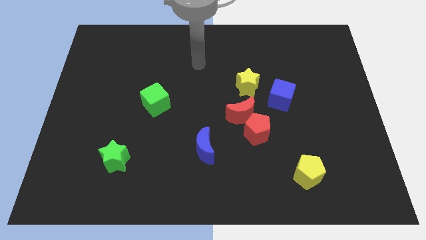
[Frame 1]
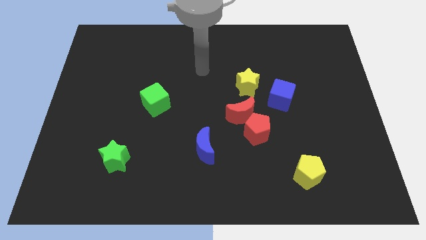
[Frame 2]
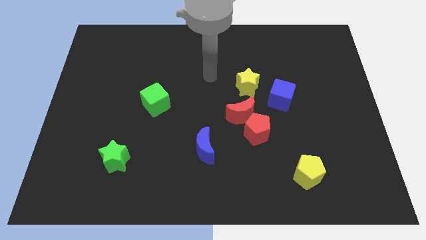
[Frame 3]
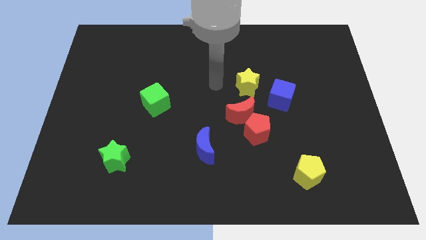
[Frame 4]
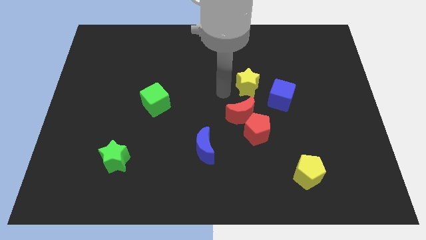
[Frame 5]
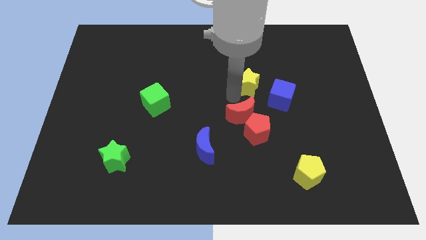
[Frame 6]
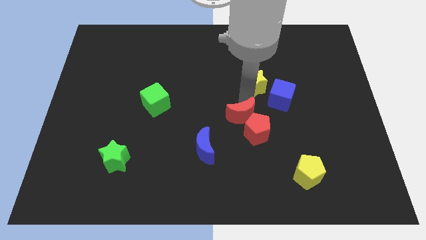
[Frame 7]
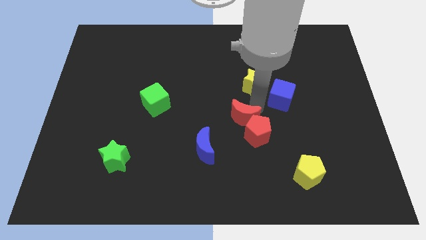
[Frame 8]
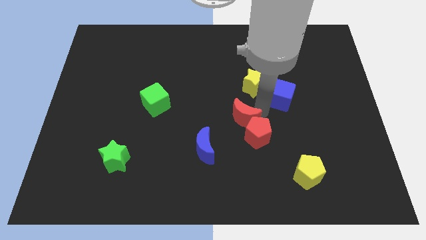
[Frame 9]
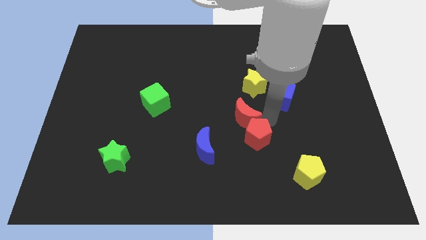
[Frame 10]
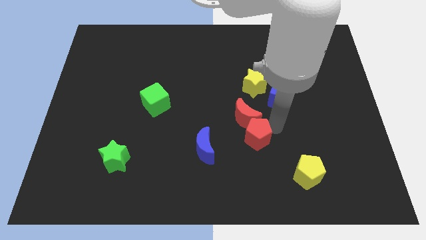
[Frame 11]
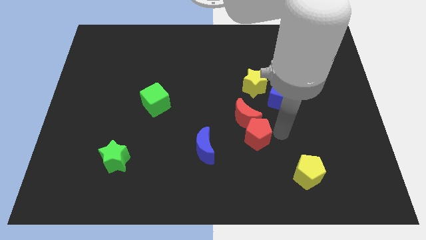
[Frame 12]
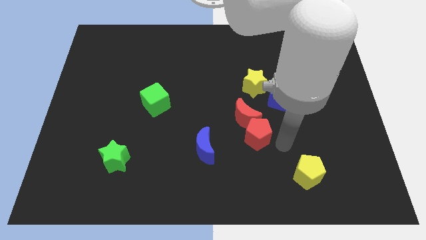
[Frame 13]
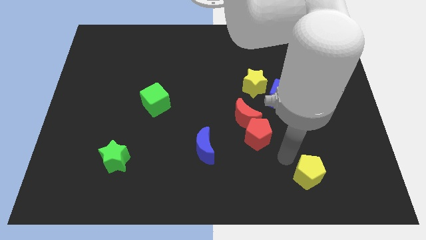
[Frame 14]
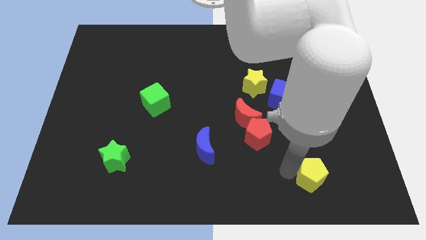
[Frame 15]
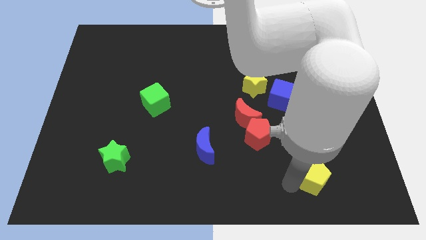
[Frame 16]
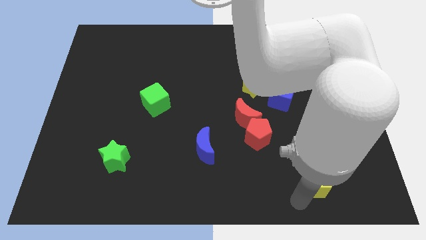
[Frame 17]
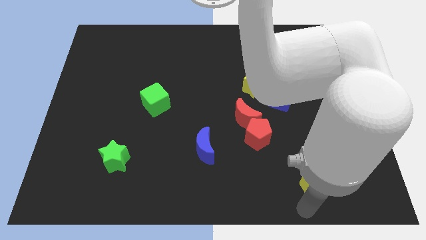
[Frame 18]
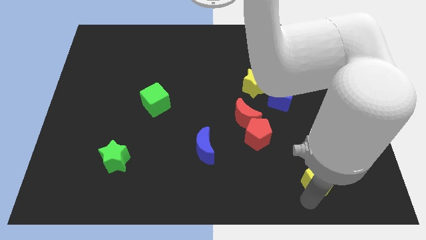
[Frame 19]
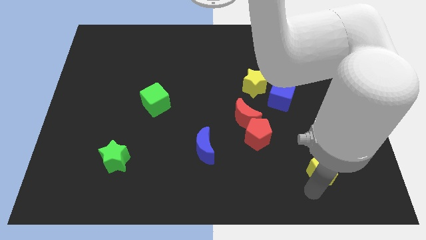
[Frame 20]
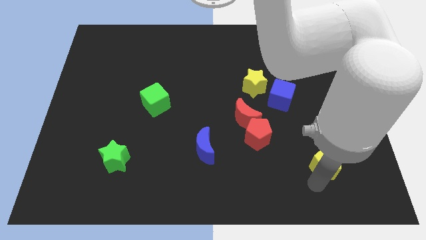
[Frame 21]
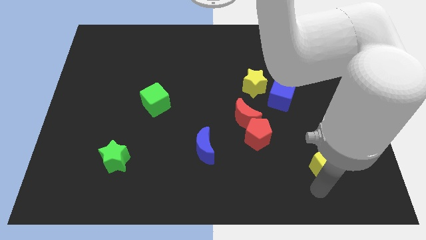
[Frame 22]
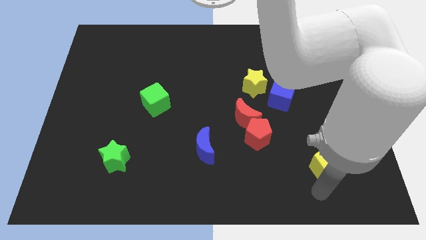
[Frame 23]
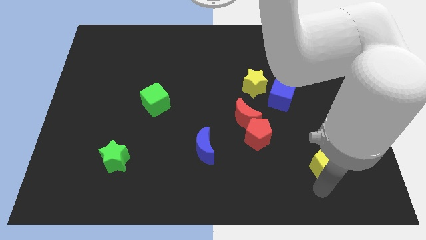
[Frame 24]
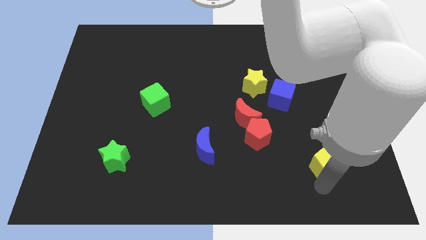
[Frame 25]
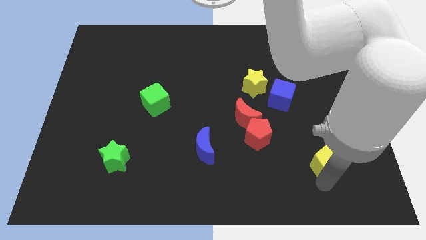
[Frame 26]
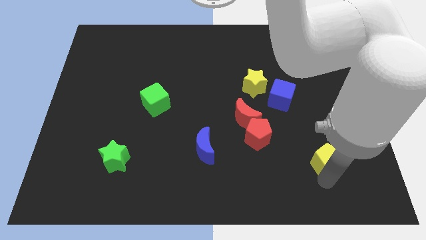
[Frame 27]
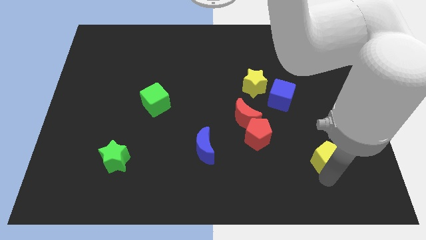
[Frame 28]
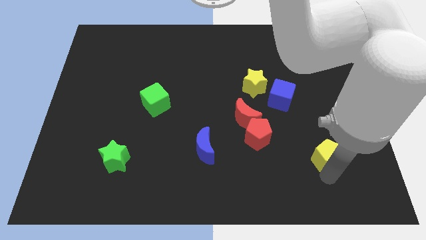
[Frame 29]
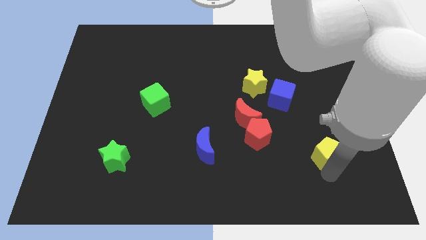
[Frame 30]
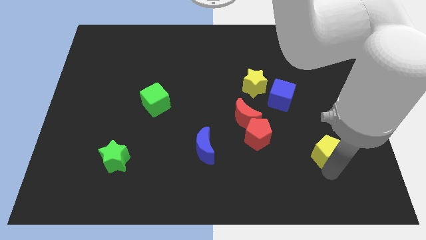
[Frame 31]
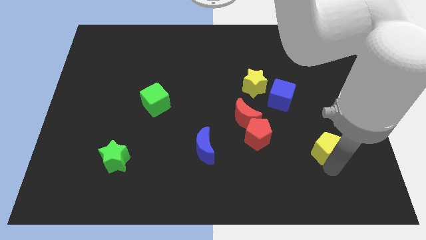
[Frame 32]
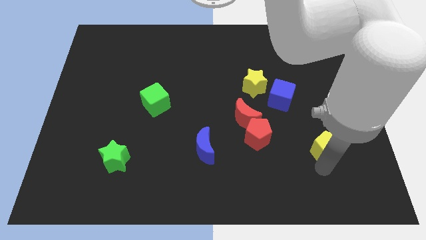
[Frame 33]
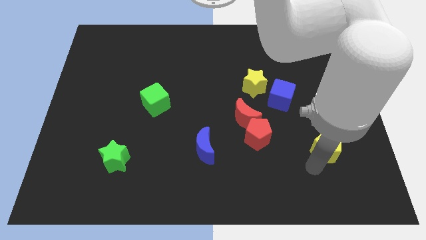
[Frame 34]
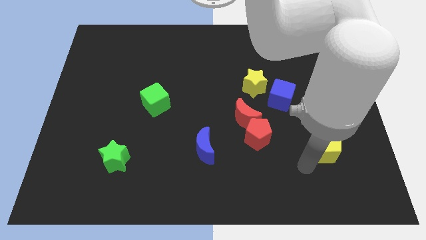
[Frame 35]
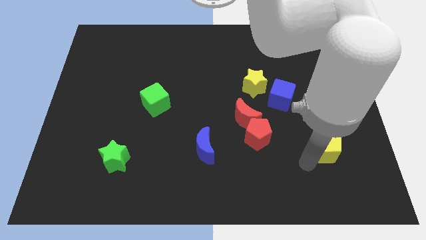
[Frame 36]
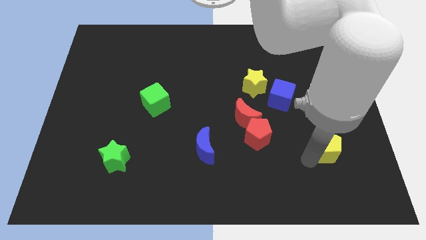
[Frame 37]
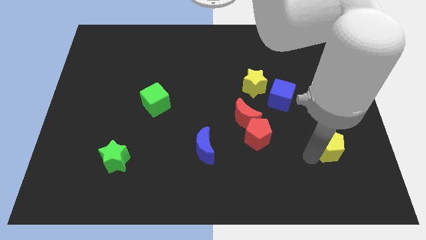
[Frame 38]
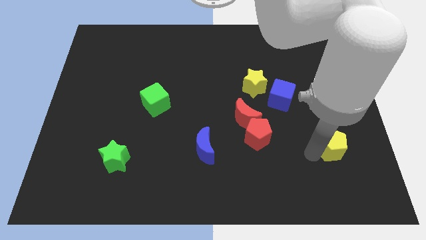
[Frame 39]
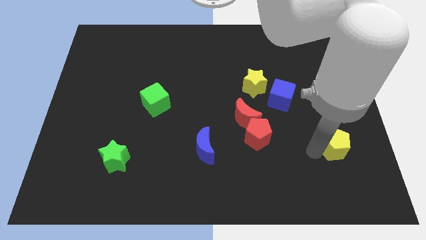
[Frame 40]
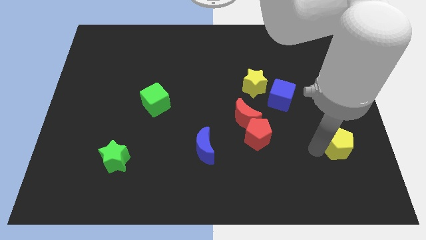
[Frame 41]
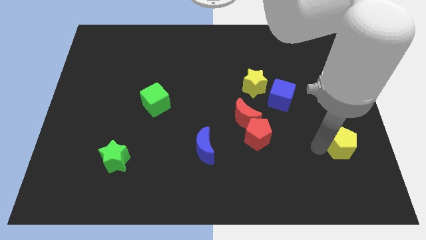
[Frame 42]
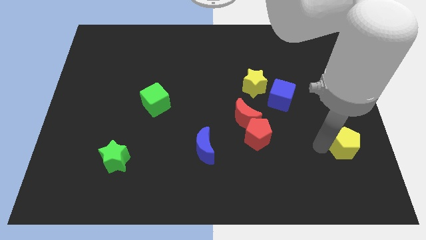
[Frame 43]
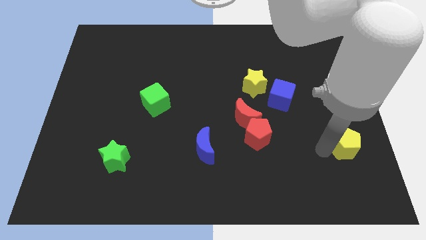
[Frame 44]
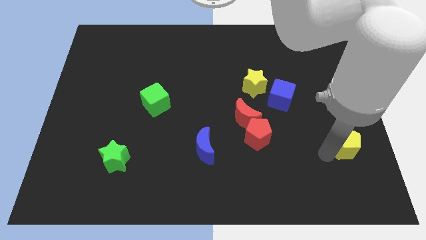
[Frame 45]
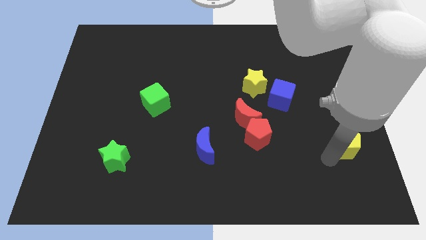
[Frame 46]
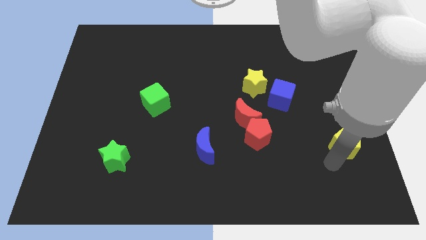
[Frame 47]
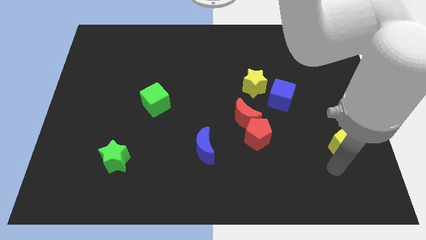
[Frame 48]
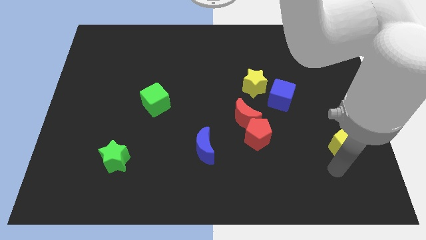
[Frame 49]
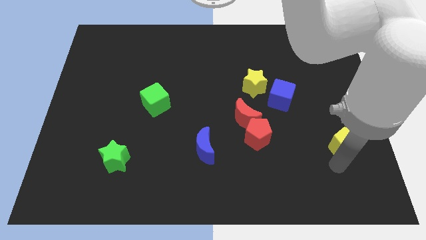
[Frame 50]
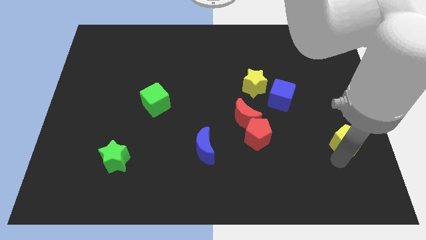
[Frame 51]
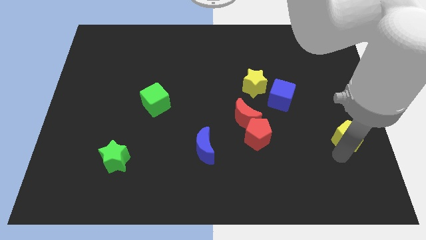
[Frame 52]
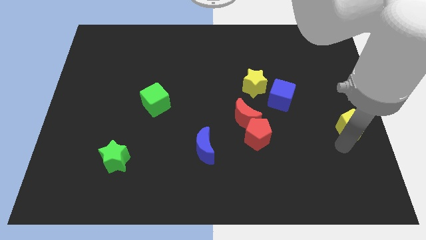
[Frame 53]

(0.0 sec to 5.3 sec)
push the yellow pentagon to the center right
